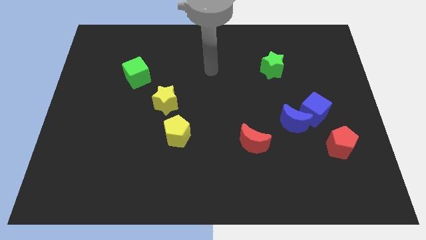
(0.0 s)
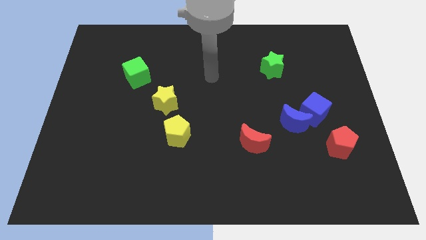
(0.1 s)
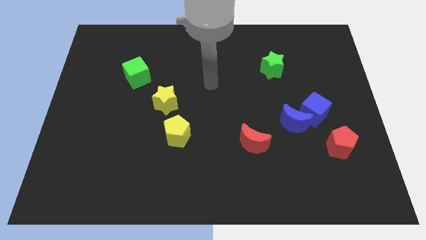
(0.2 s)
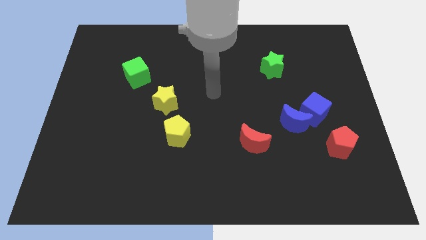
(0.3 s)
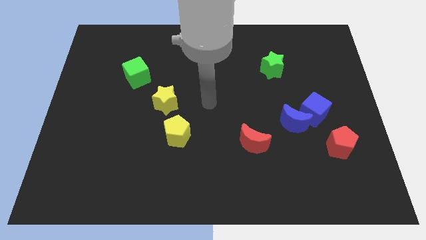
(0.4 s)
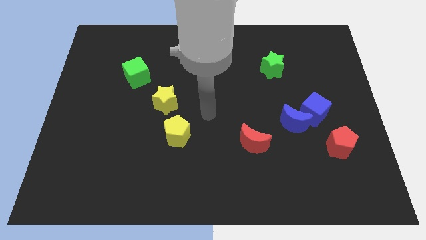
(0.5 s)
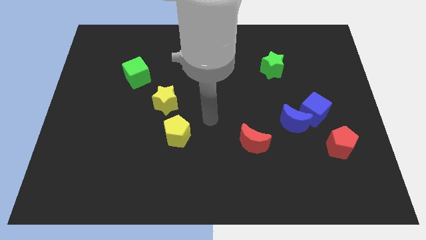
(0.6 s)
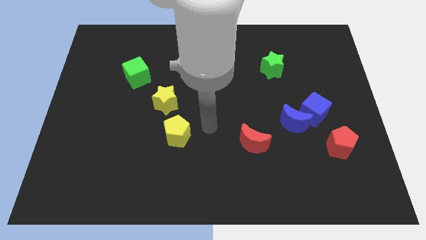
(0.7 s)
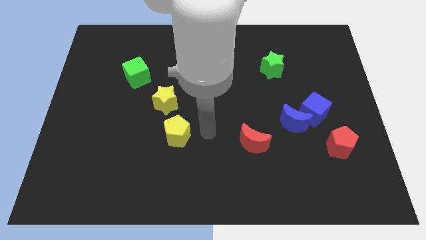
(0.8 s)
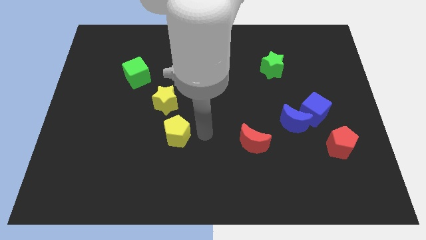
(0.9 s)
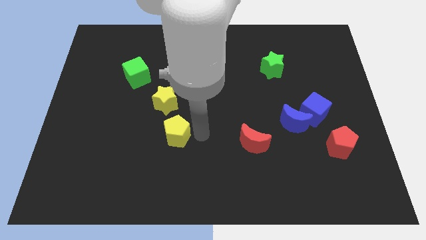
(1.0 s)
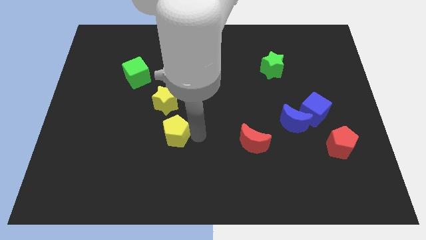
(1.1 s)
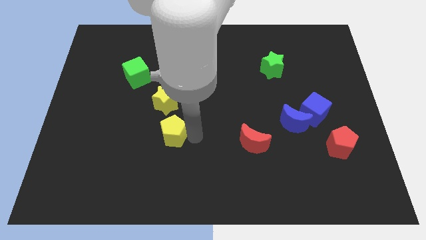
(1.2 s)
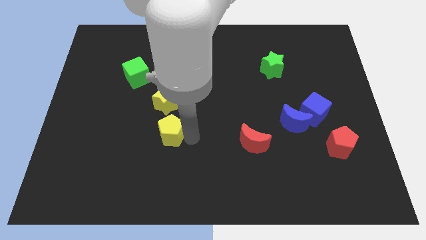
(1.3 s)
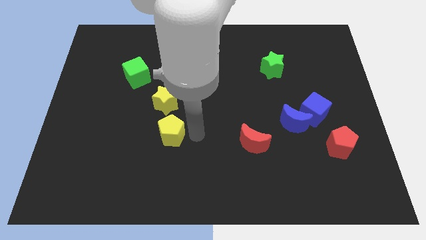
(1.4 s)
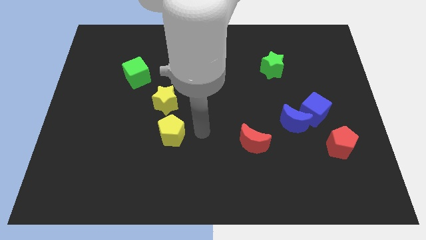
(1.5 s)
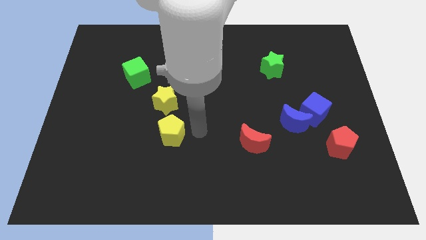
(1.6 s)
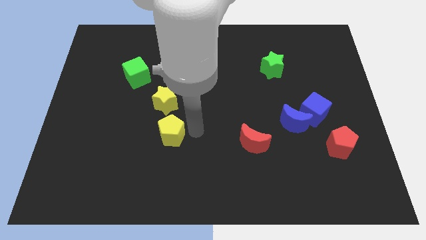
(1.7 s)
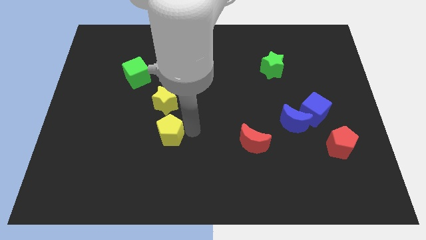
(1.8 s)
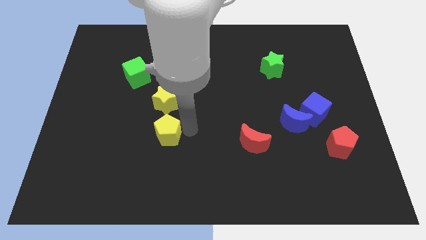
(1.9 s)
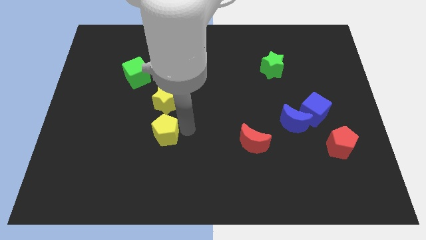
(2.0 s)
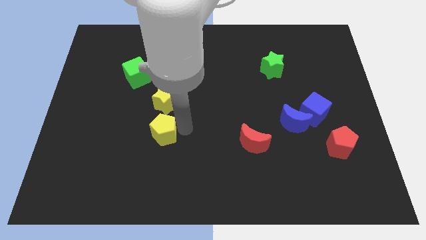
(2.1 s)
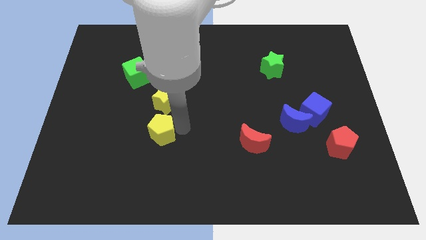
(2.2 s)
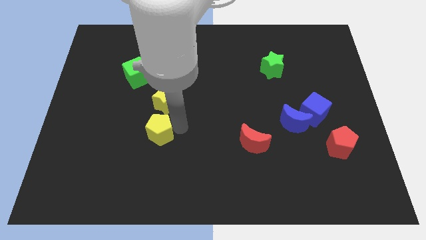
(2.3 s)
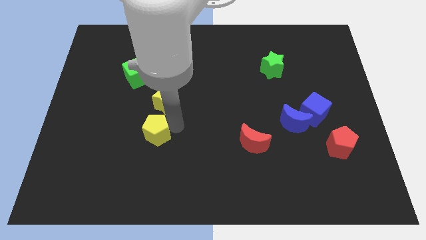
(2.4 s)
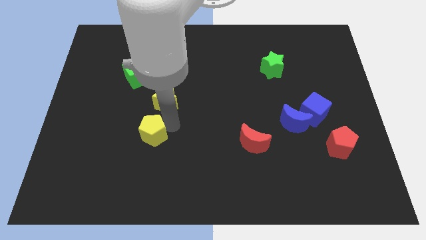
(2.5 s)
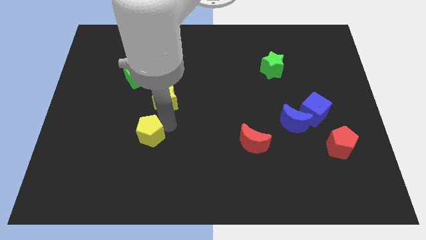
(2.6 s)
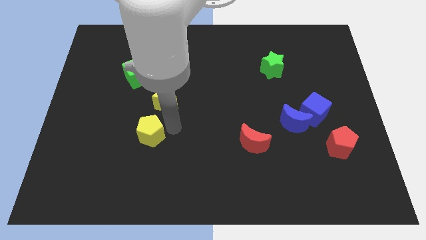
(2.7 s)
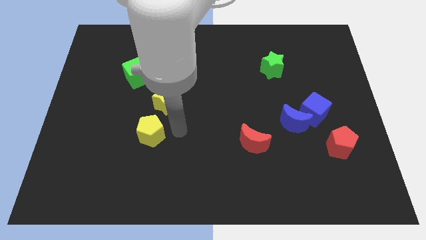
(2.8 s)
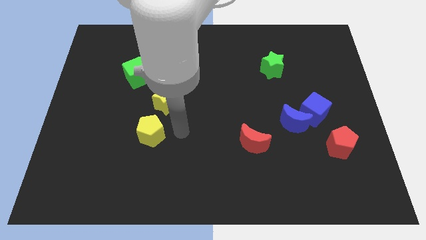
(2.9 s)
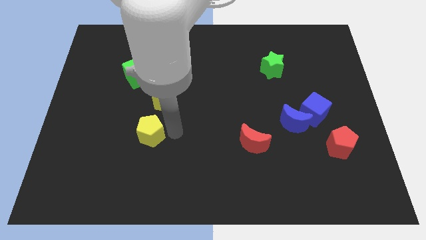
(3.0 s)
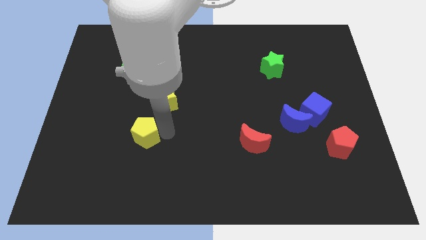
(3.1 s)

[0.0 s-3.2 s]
move the yellow pentagon to the left slightly

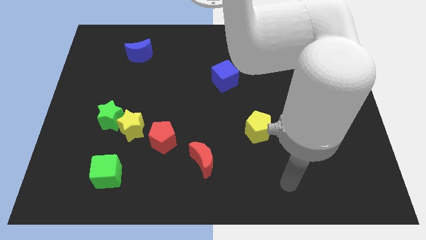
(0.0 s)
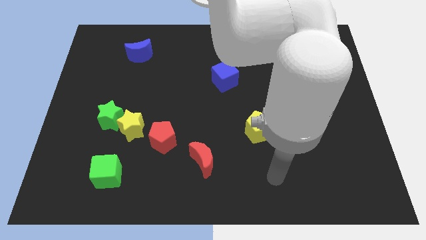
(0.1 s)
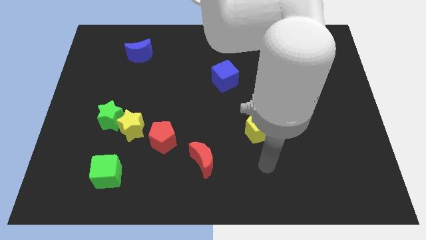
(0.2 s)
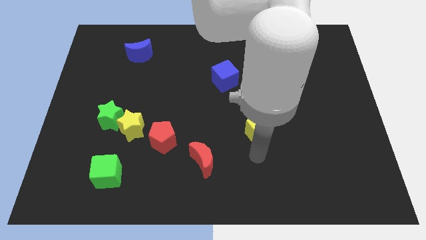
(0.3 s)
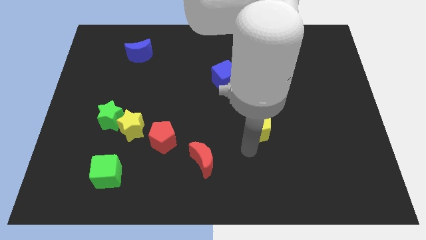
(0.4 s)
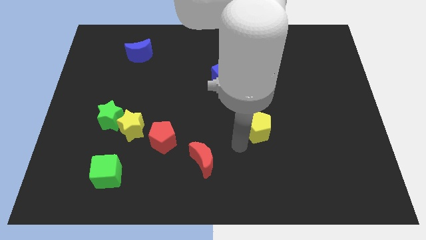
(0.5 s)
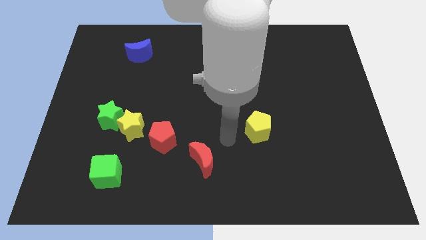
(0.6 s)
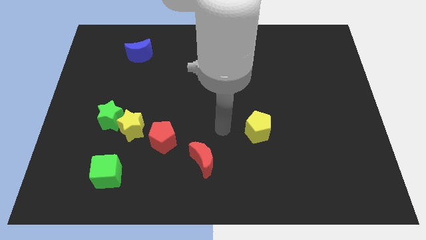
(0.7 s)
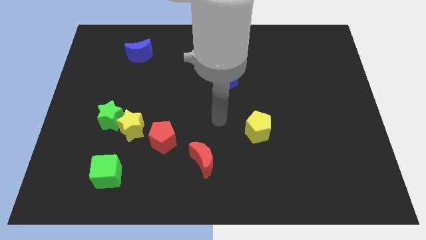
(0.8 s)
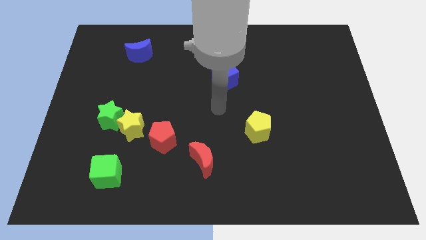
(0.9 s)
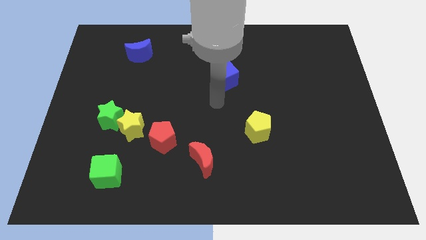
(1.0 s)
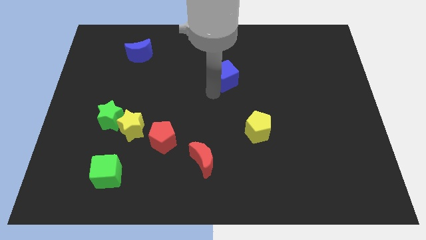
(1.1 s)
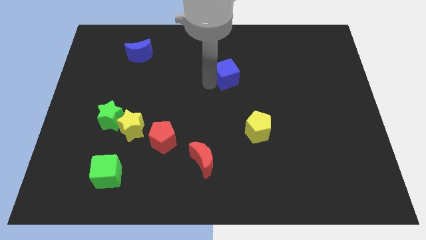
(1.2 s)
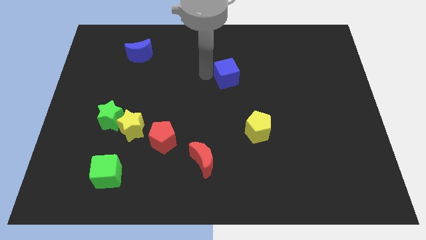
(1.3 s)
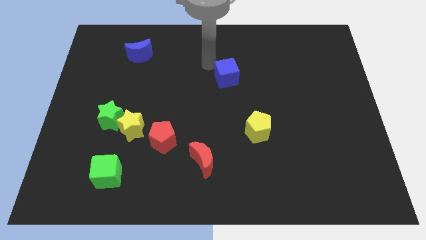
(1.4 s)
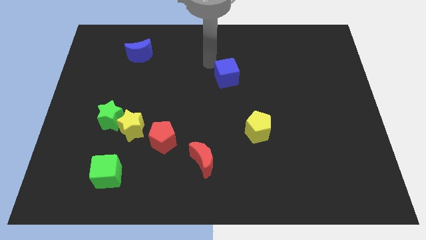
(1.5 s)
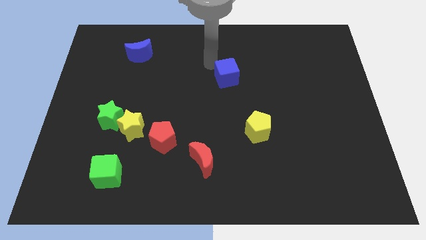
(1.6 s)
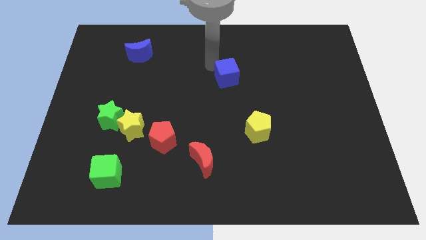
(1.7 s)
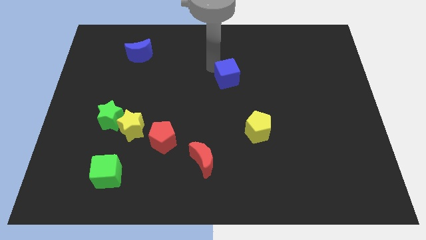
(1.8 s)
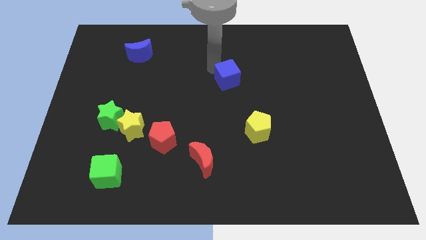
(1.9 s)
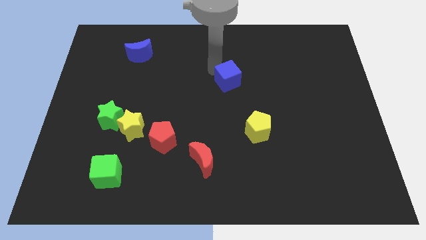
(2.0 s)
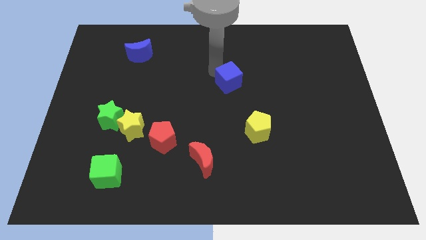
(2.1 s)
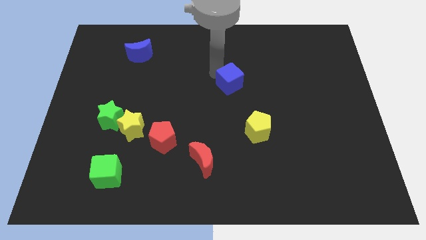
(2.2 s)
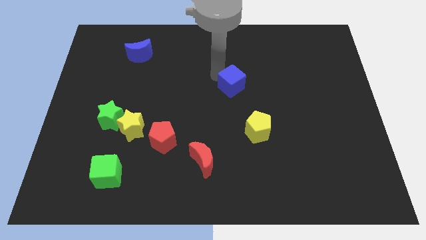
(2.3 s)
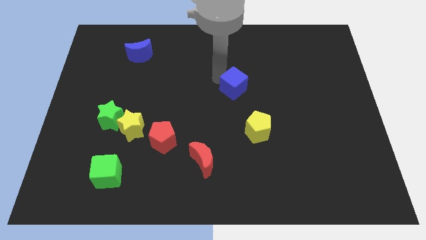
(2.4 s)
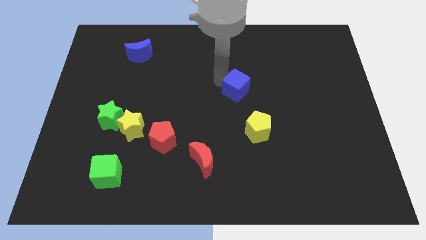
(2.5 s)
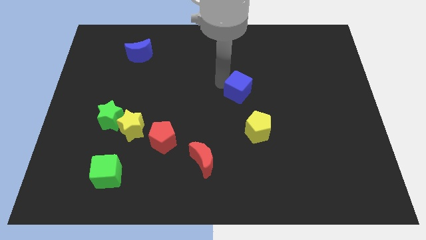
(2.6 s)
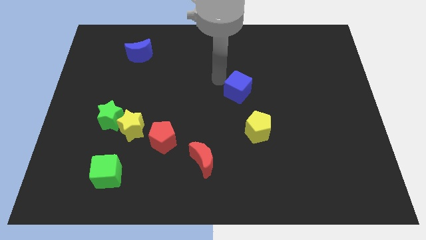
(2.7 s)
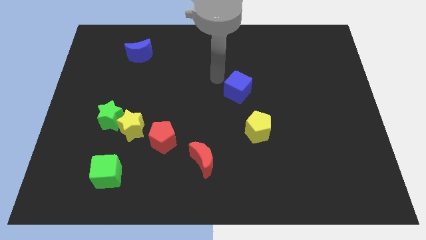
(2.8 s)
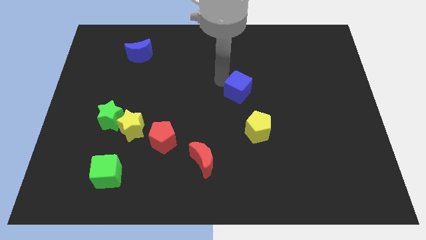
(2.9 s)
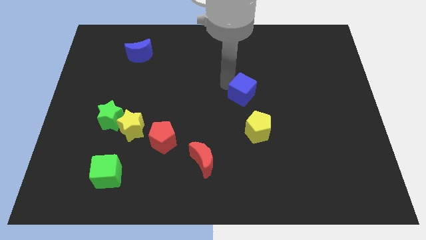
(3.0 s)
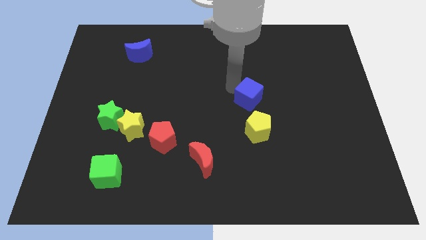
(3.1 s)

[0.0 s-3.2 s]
slide the blue cube somewhat downwards and right diagonally

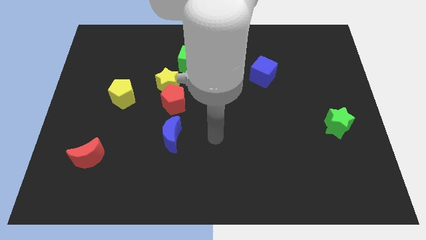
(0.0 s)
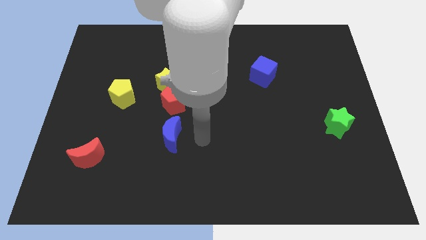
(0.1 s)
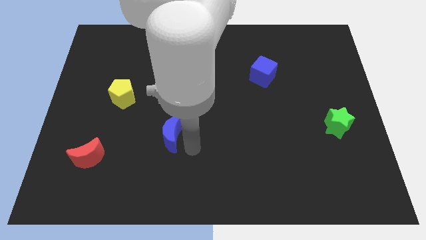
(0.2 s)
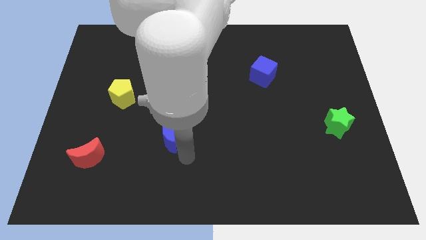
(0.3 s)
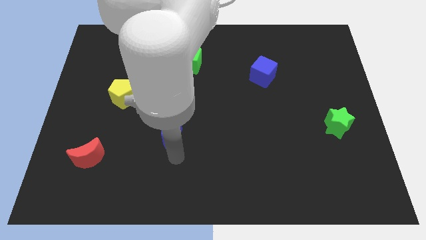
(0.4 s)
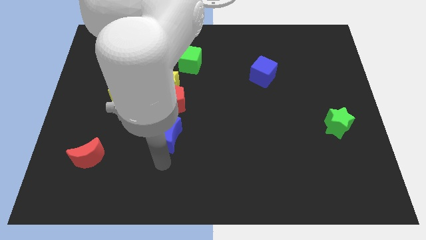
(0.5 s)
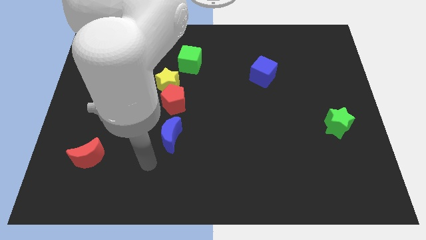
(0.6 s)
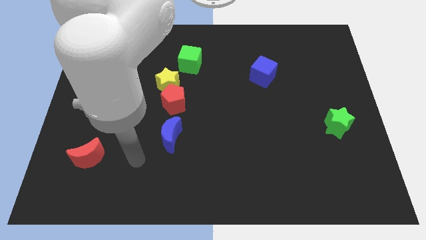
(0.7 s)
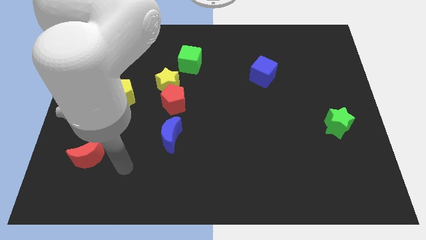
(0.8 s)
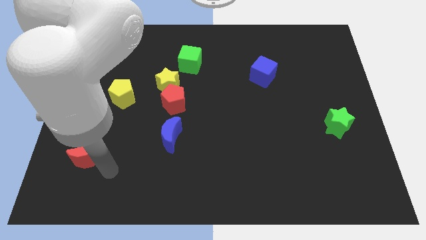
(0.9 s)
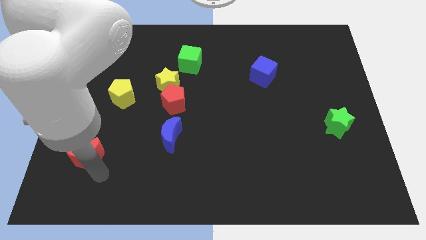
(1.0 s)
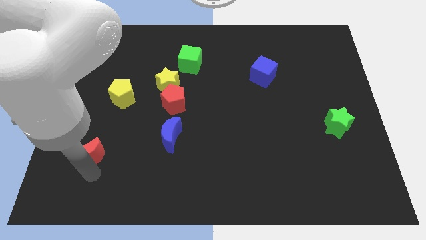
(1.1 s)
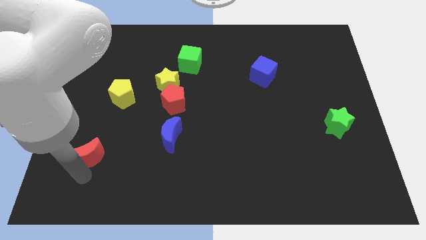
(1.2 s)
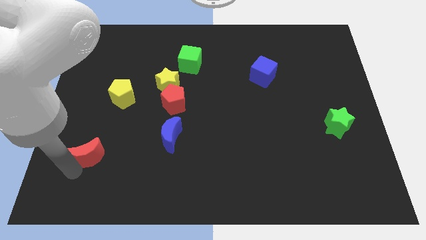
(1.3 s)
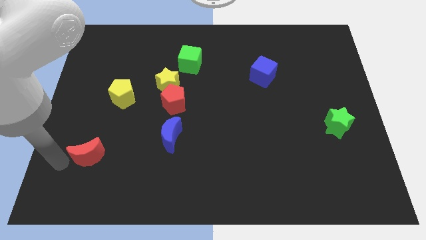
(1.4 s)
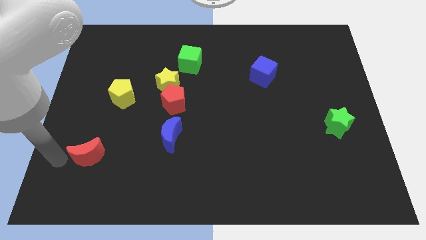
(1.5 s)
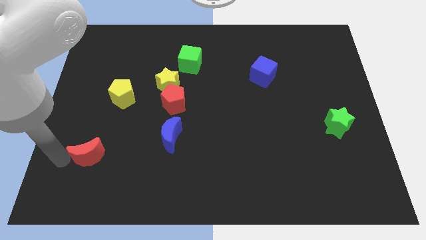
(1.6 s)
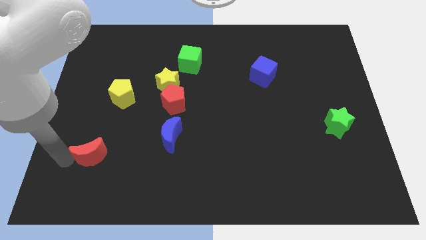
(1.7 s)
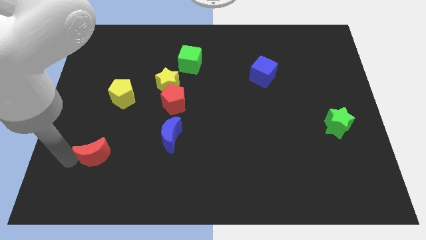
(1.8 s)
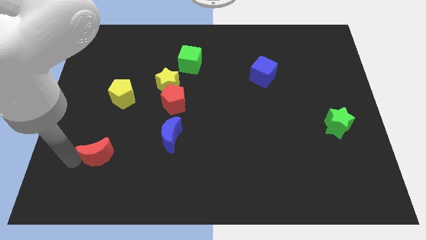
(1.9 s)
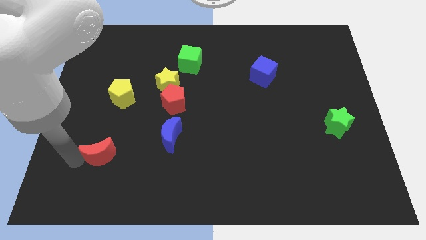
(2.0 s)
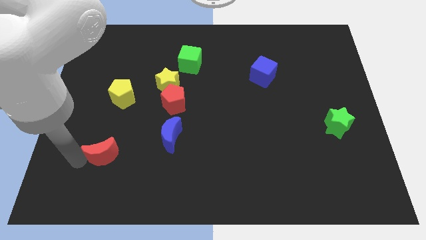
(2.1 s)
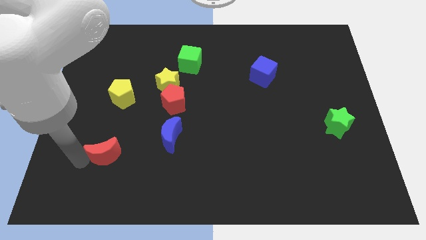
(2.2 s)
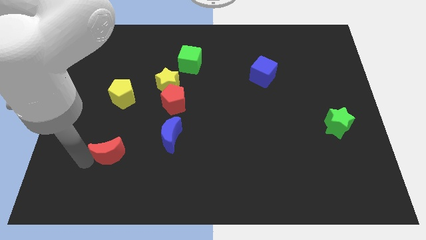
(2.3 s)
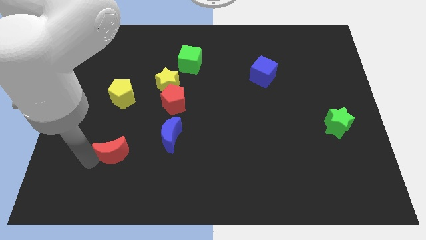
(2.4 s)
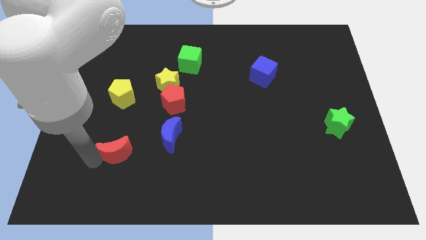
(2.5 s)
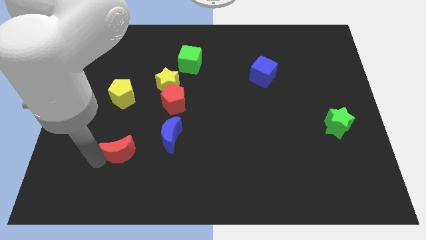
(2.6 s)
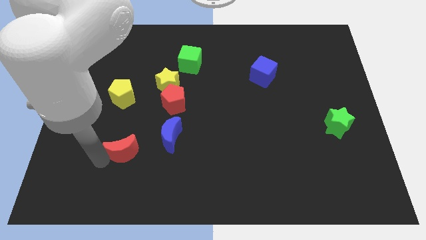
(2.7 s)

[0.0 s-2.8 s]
slide the red moon to the right a bit
